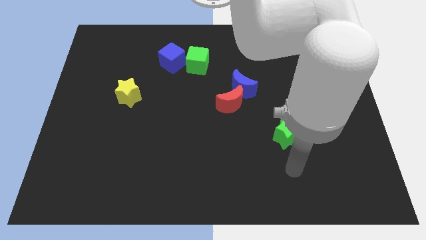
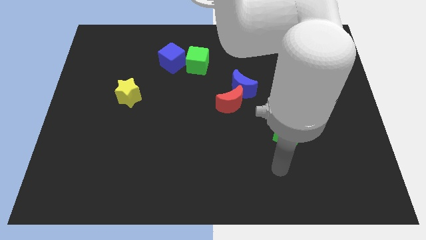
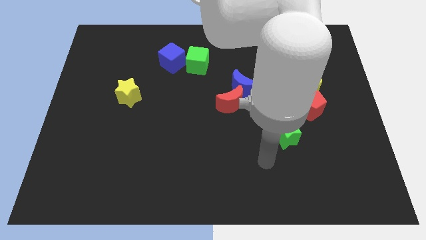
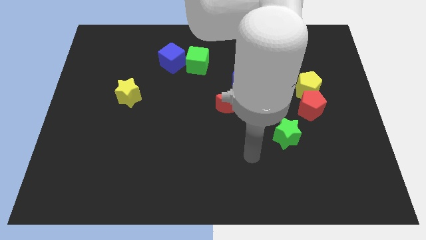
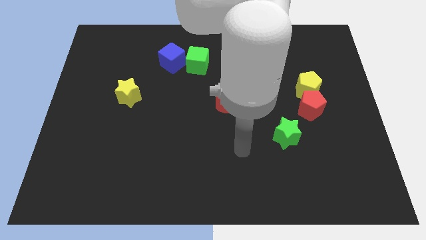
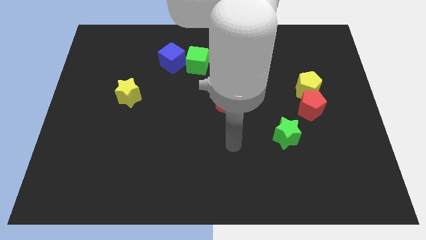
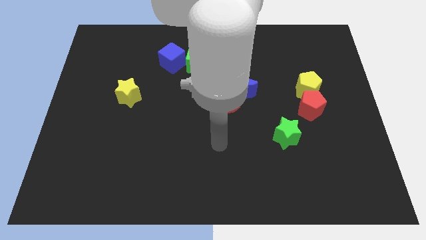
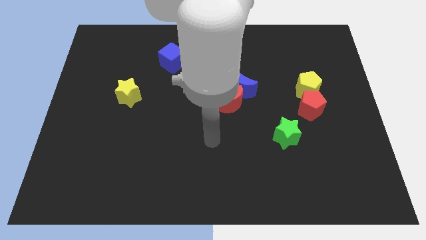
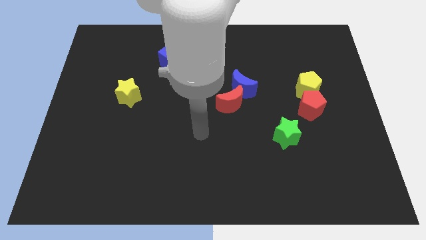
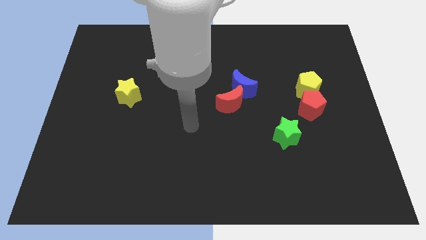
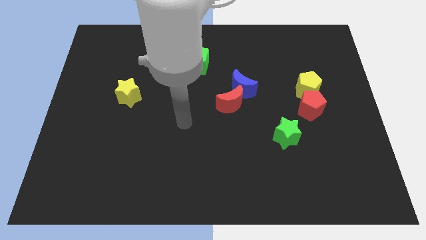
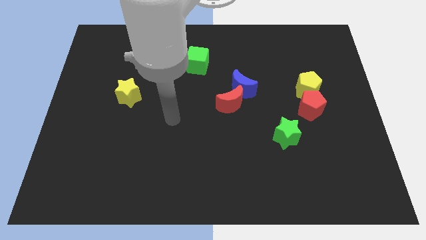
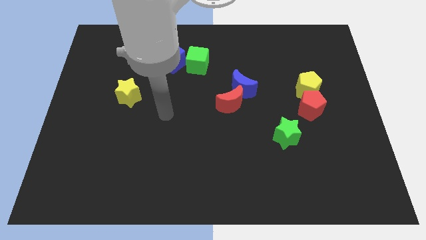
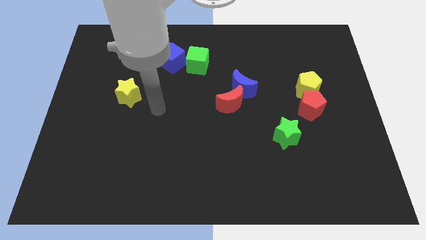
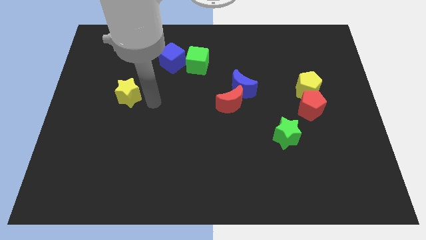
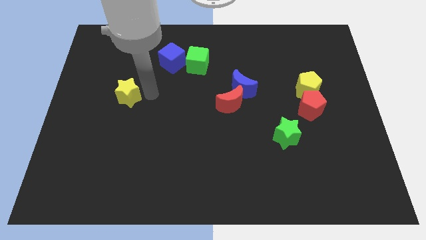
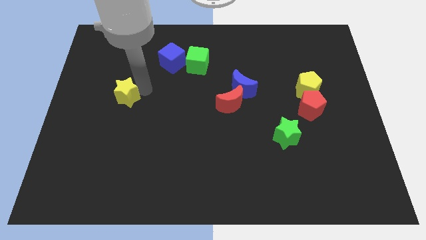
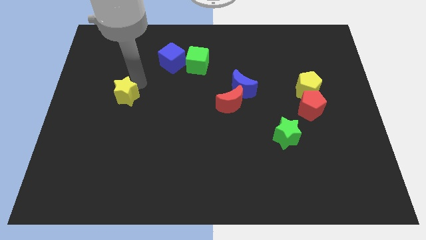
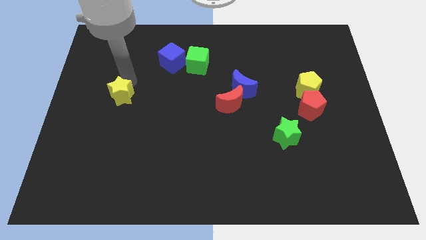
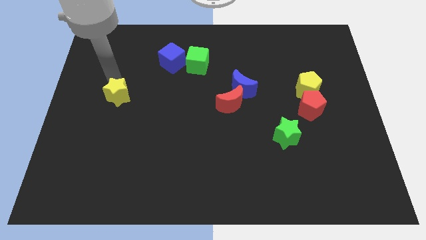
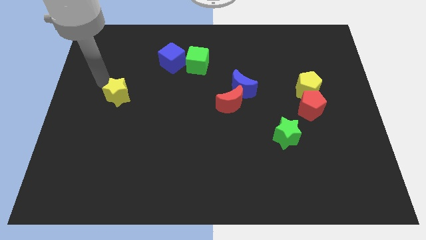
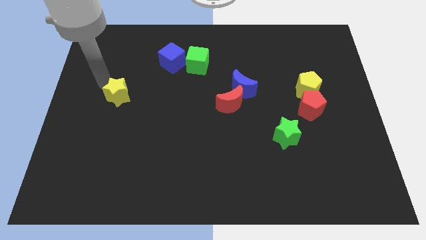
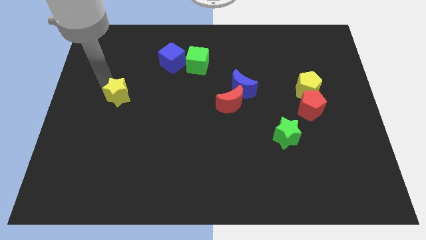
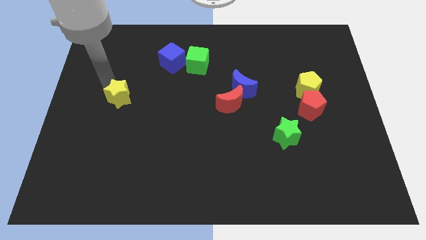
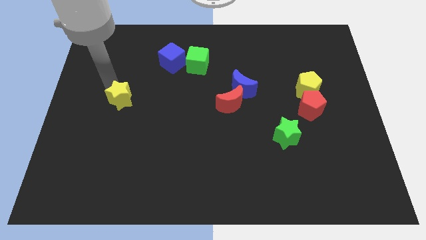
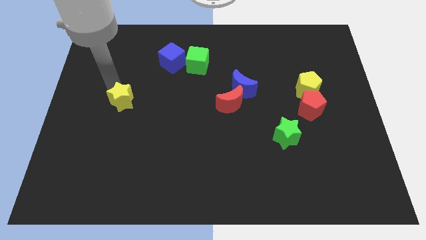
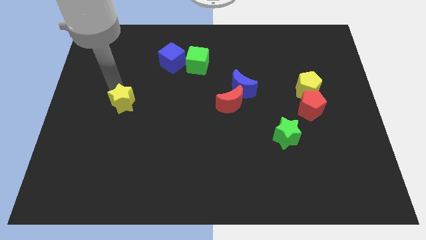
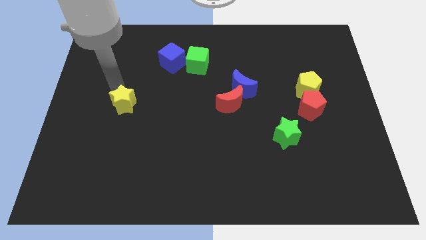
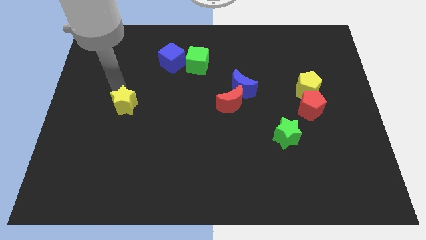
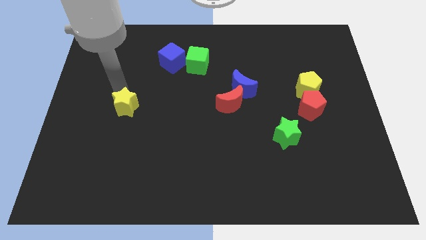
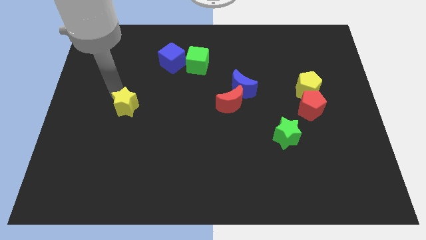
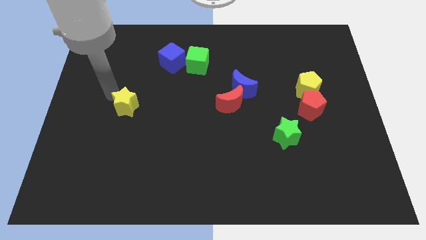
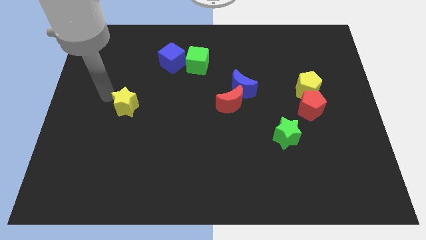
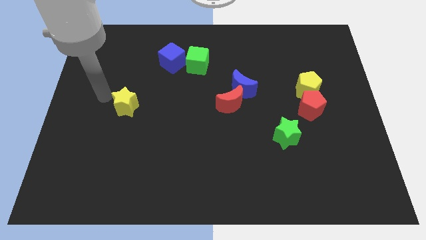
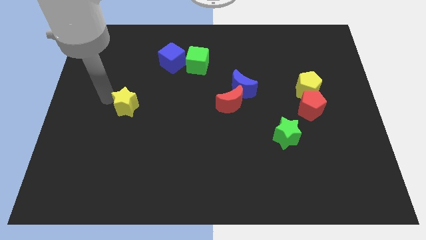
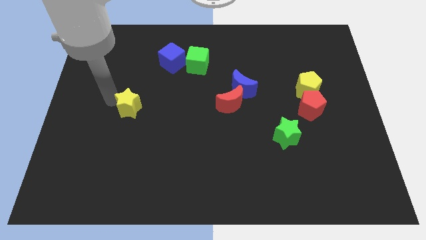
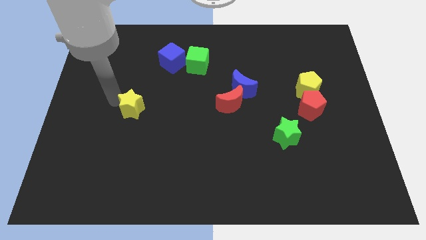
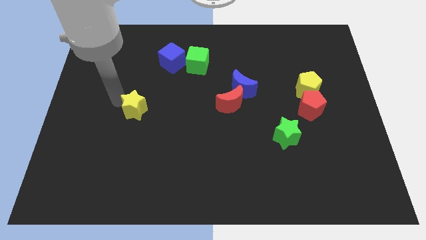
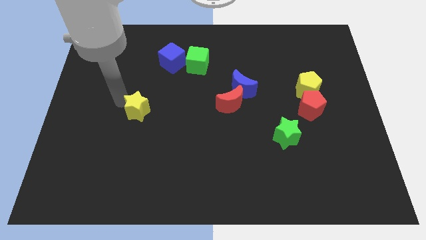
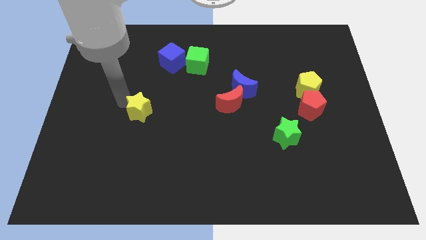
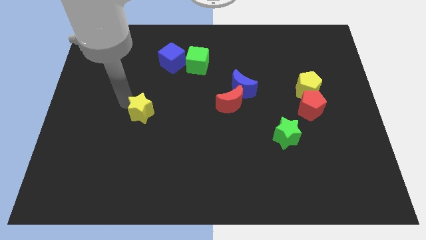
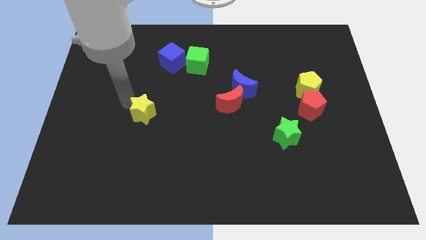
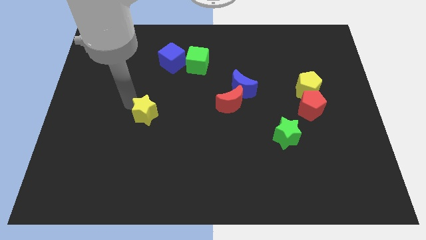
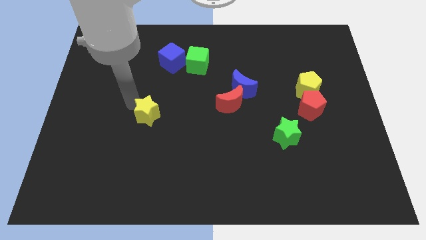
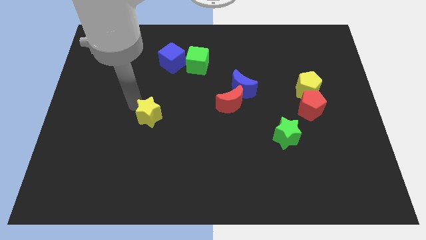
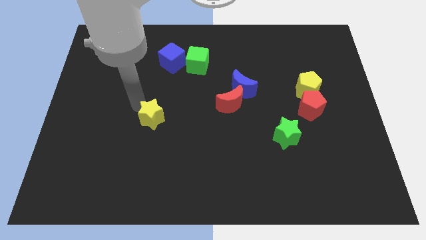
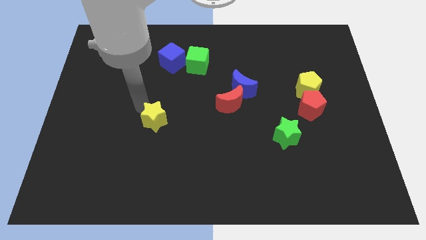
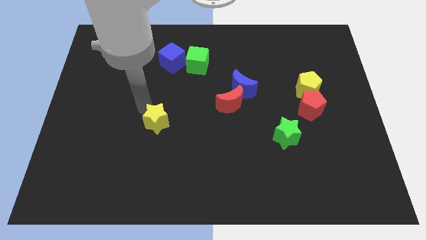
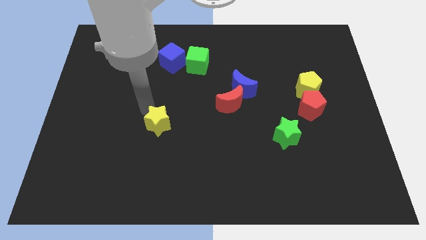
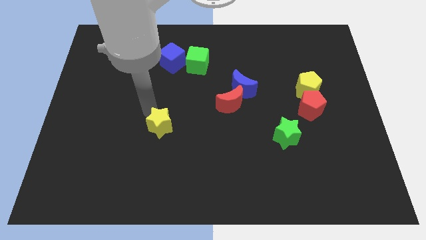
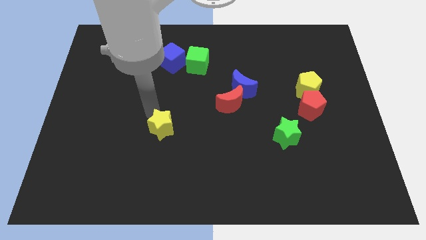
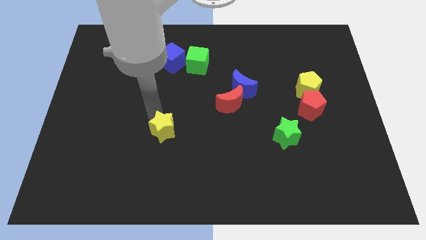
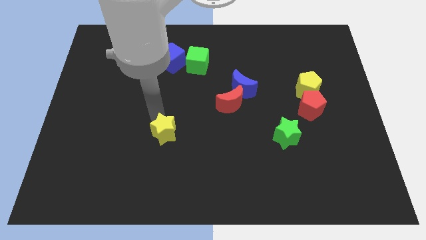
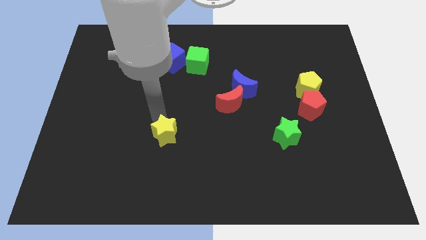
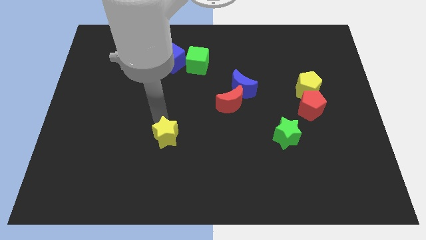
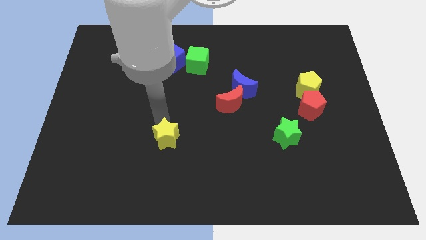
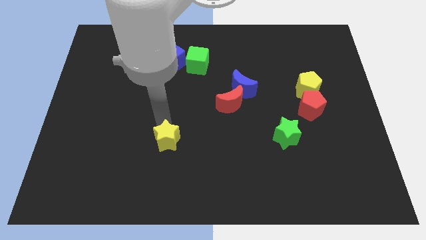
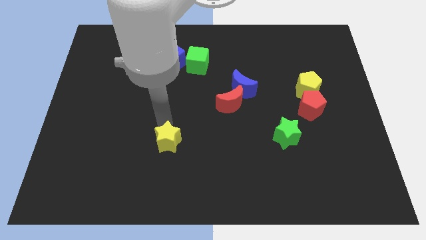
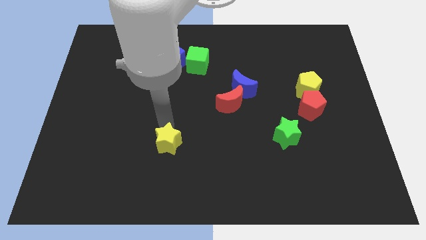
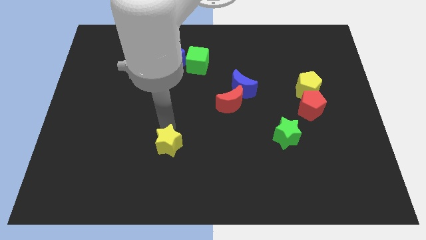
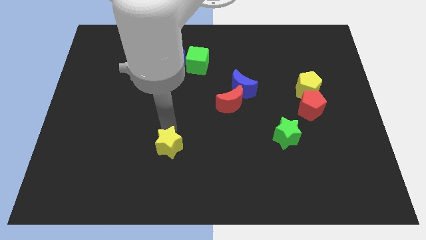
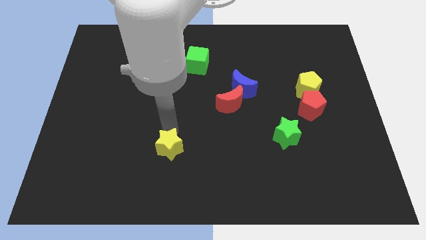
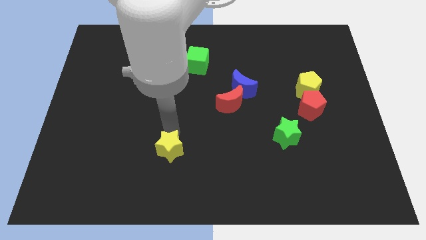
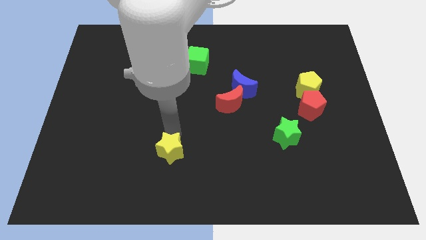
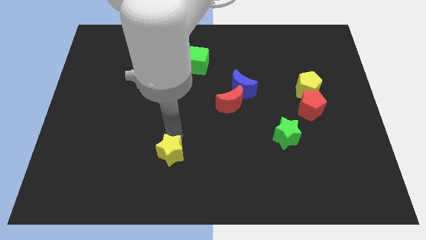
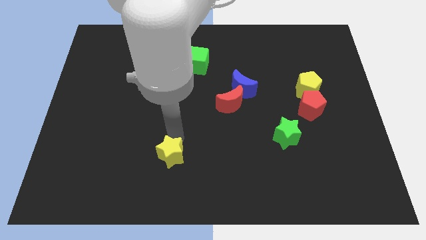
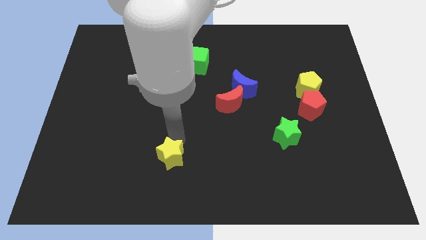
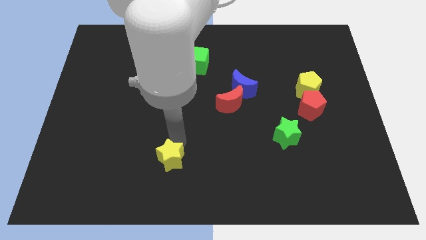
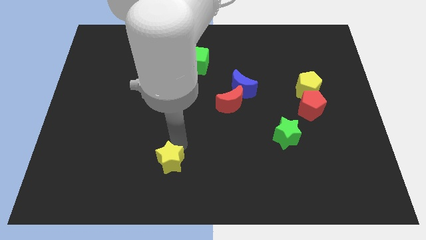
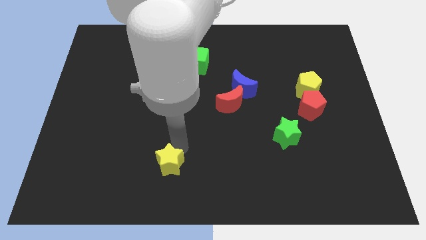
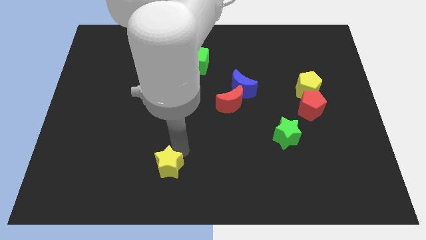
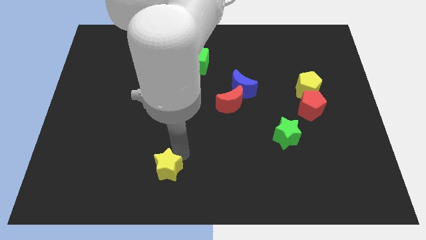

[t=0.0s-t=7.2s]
move the yellow star to the bottom side
